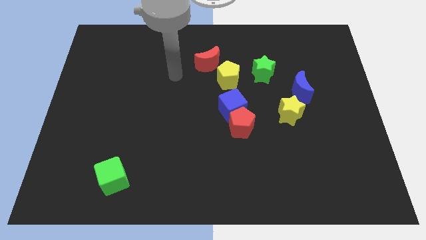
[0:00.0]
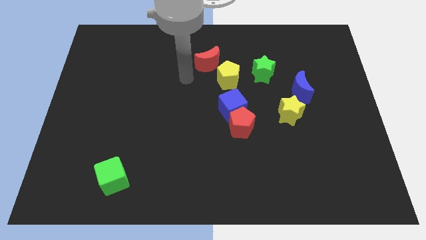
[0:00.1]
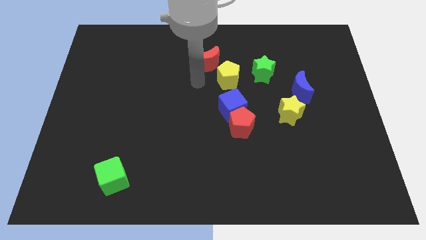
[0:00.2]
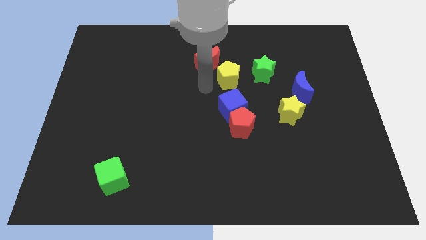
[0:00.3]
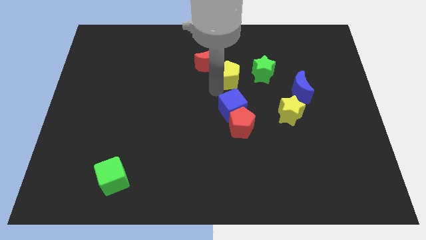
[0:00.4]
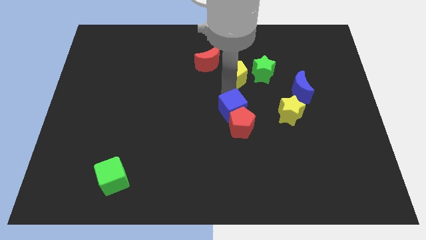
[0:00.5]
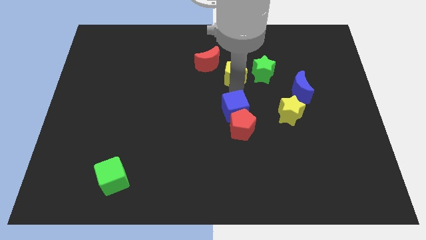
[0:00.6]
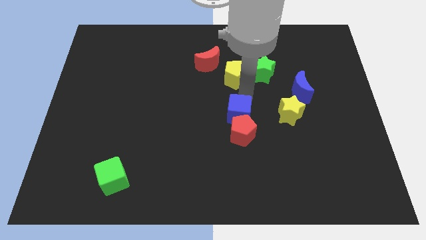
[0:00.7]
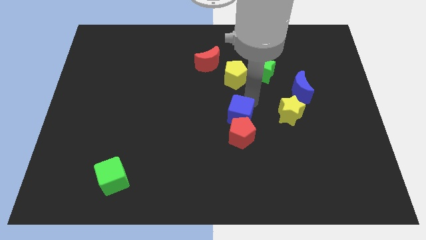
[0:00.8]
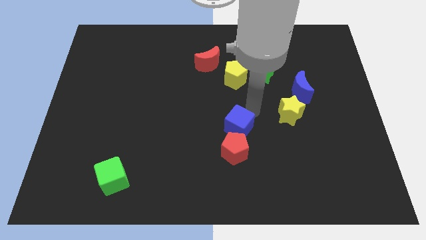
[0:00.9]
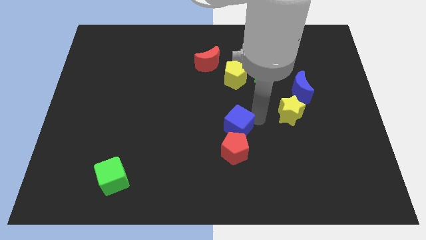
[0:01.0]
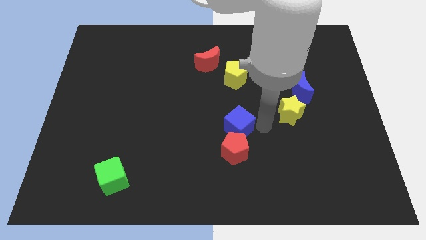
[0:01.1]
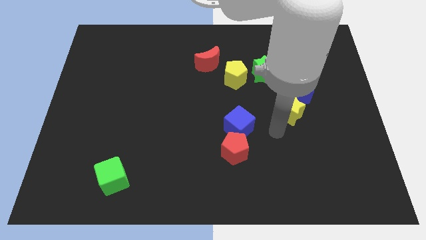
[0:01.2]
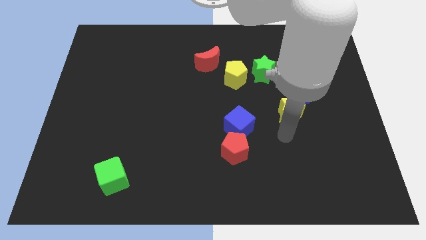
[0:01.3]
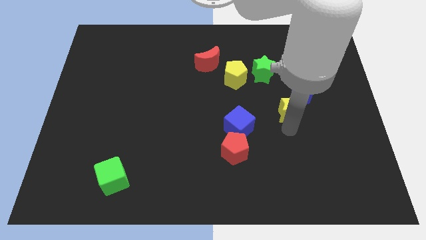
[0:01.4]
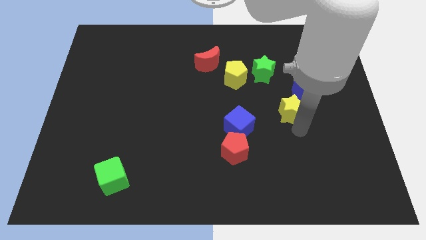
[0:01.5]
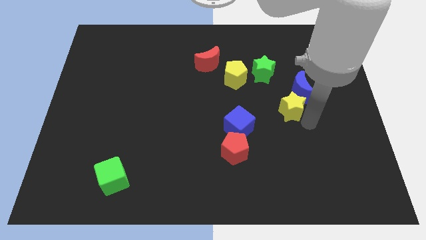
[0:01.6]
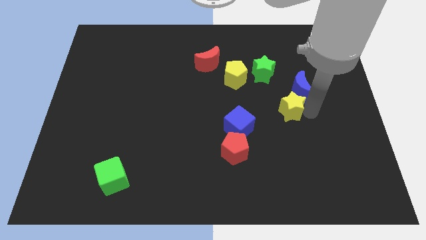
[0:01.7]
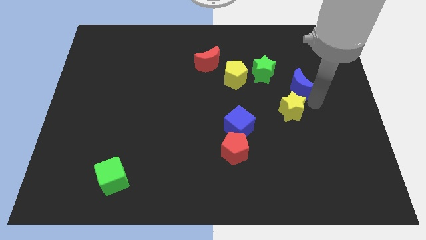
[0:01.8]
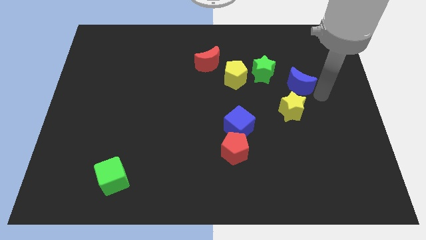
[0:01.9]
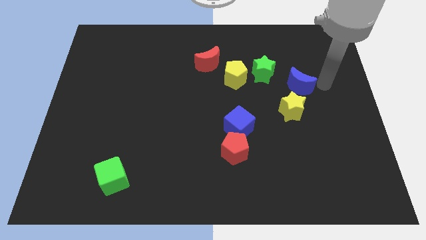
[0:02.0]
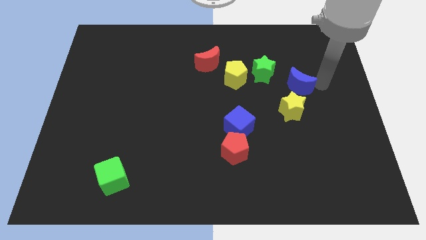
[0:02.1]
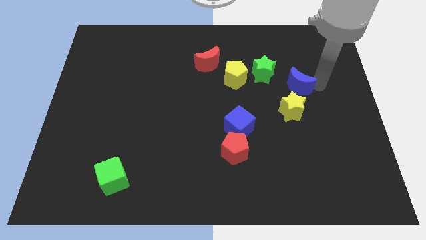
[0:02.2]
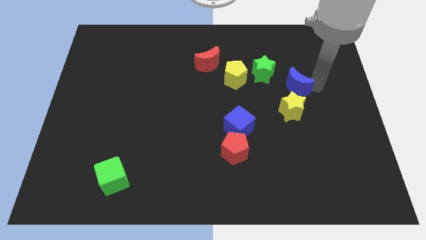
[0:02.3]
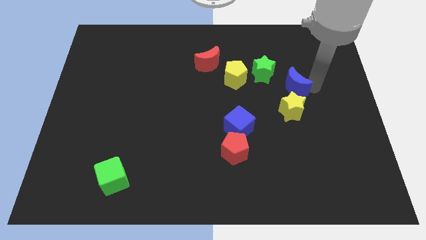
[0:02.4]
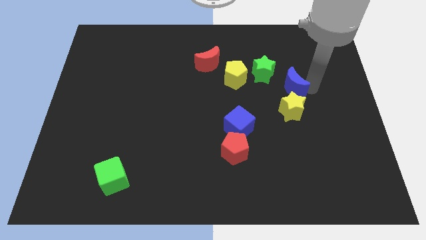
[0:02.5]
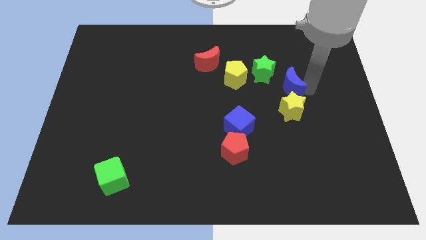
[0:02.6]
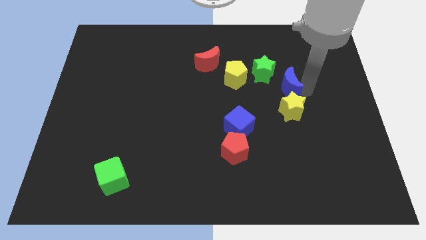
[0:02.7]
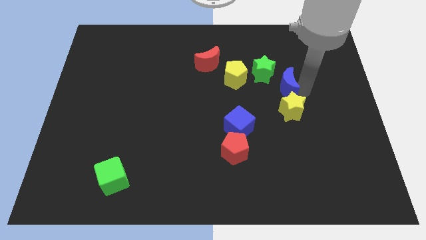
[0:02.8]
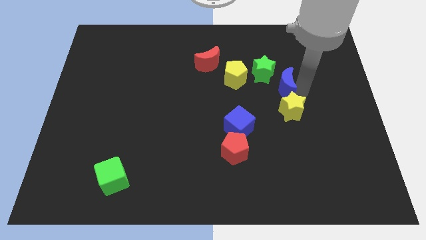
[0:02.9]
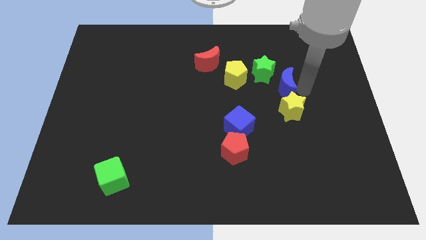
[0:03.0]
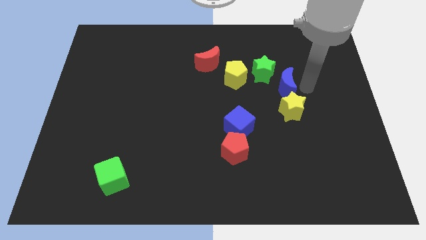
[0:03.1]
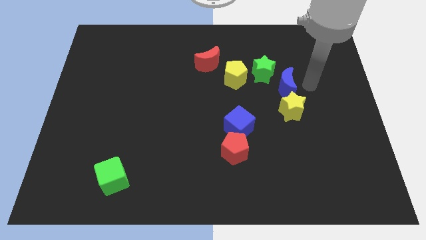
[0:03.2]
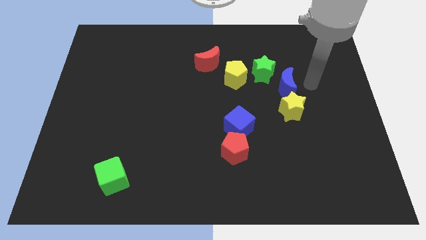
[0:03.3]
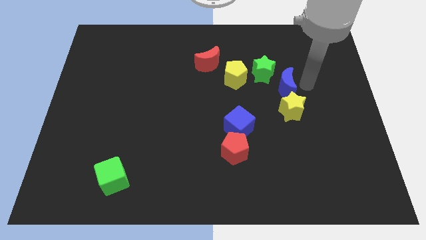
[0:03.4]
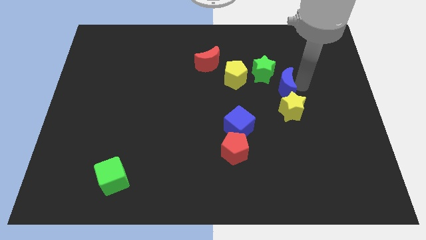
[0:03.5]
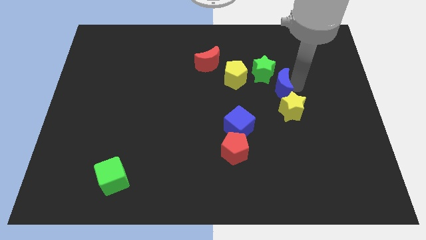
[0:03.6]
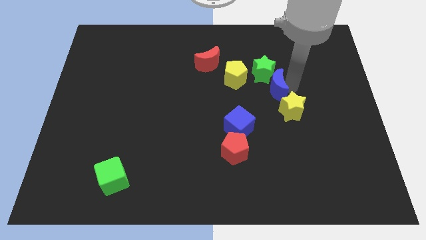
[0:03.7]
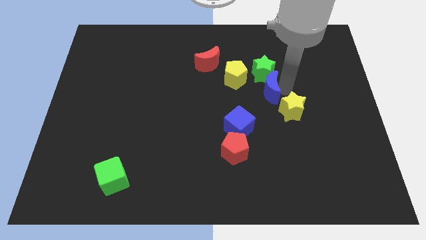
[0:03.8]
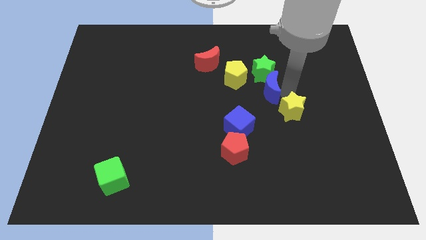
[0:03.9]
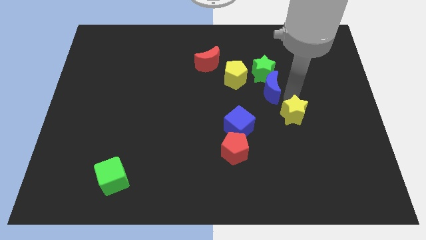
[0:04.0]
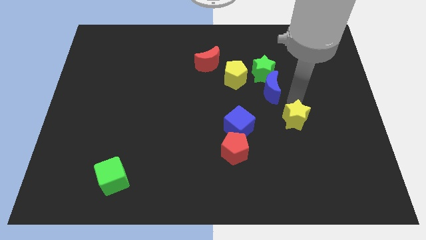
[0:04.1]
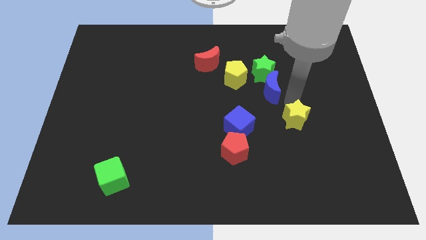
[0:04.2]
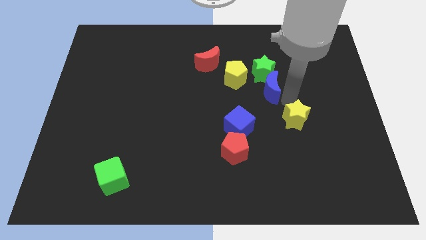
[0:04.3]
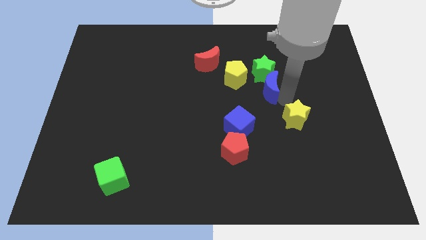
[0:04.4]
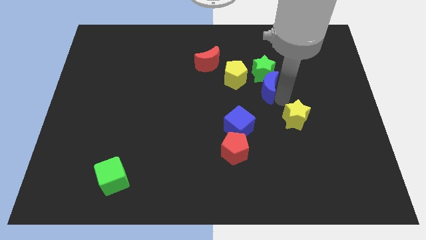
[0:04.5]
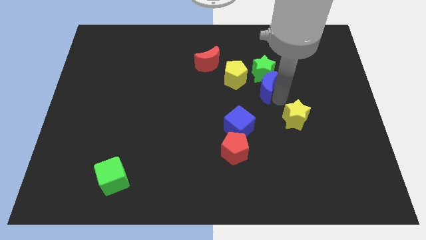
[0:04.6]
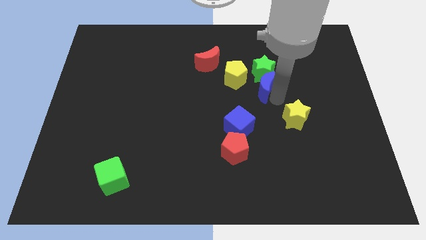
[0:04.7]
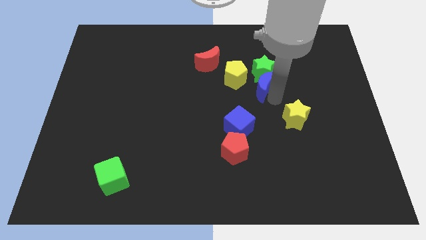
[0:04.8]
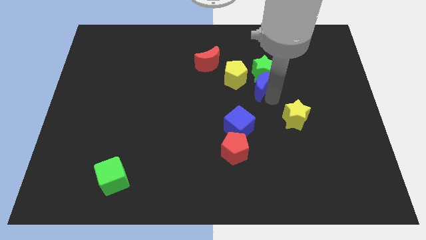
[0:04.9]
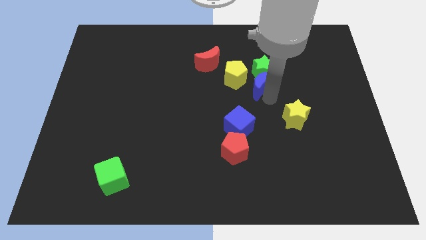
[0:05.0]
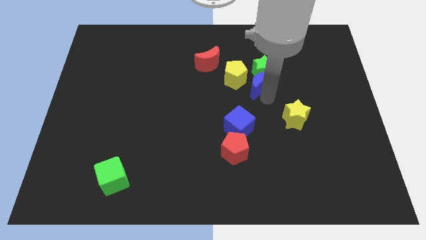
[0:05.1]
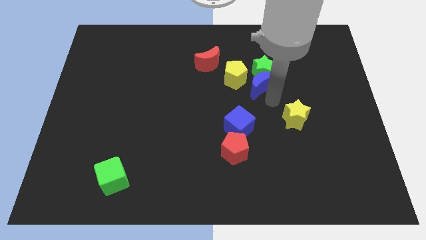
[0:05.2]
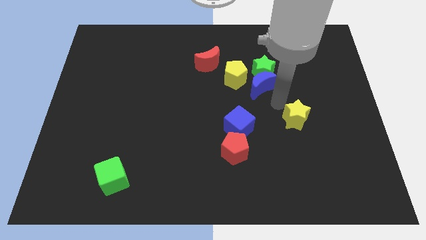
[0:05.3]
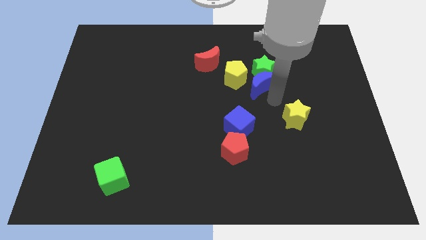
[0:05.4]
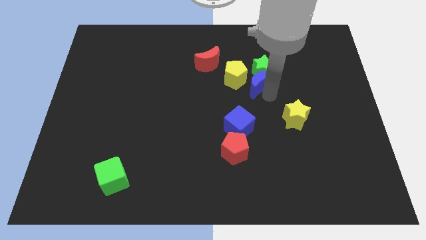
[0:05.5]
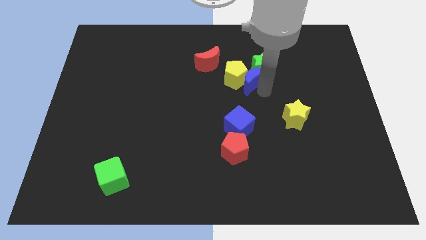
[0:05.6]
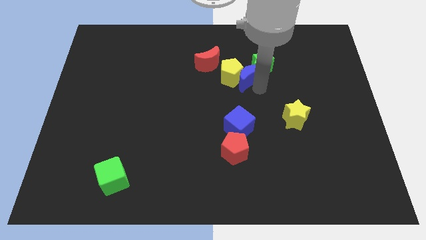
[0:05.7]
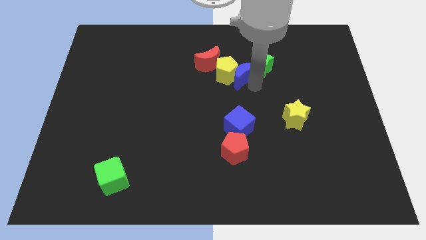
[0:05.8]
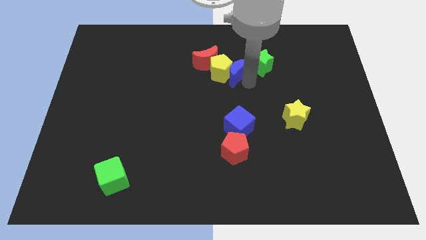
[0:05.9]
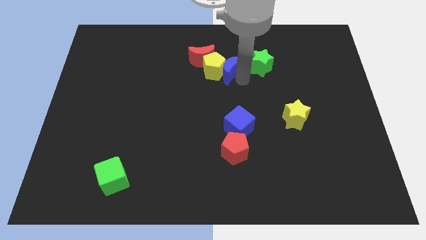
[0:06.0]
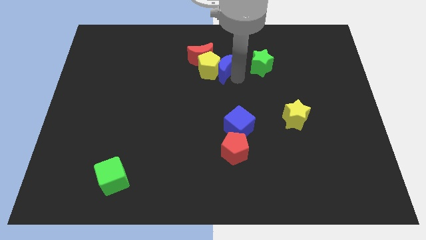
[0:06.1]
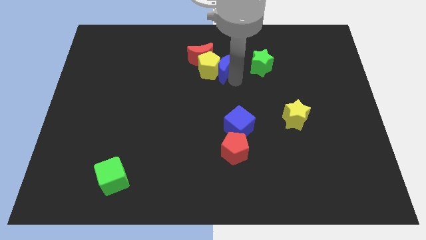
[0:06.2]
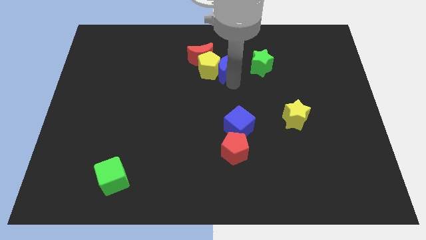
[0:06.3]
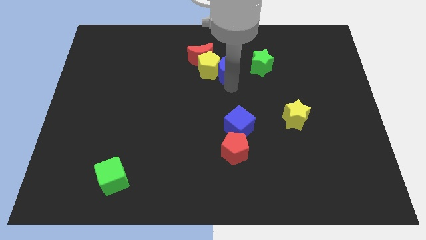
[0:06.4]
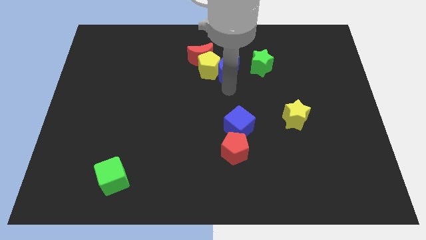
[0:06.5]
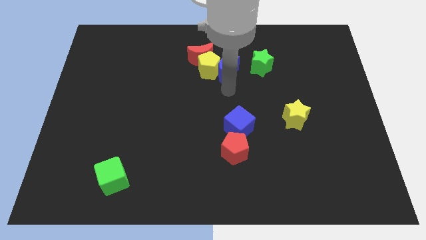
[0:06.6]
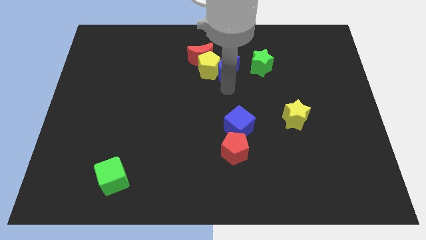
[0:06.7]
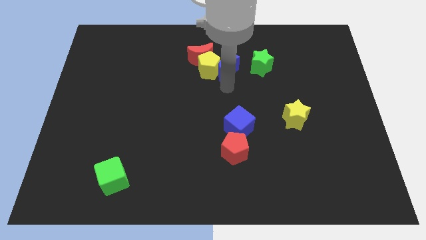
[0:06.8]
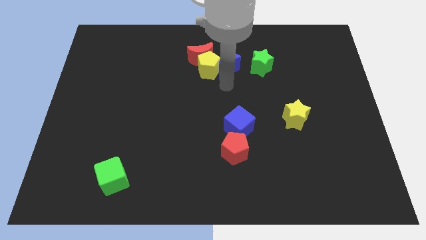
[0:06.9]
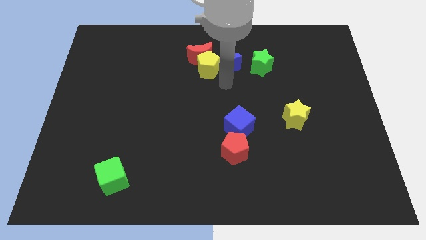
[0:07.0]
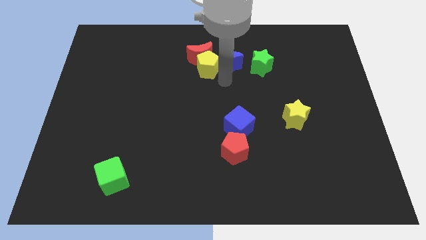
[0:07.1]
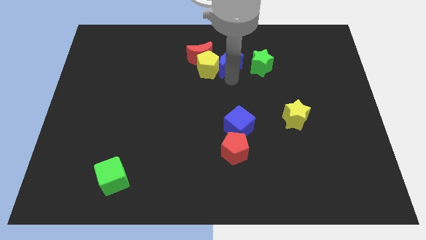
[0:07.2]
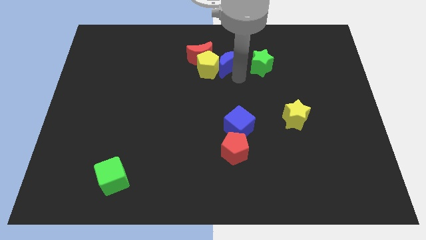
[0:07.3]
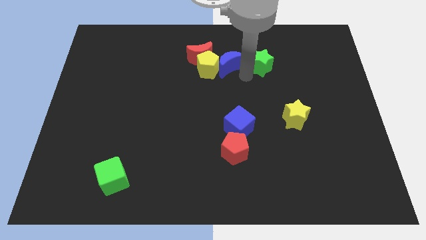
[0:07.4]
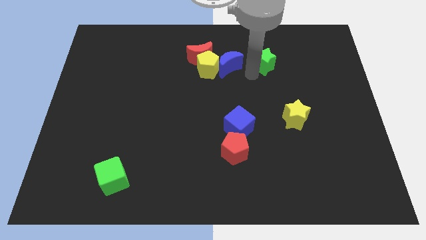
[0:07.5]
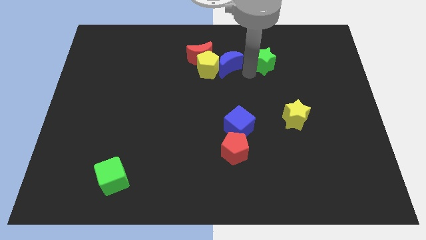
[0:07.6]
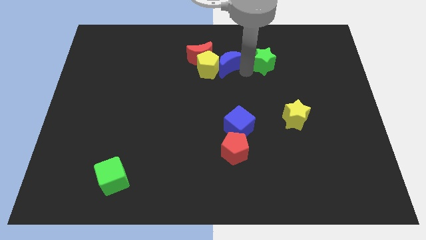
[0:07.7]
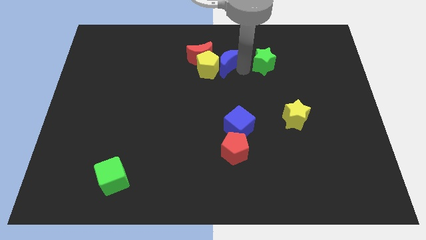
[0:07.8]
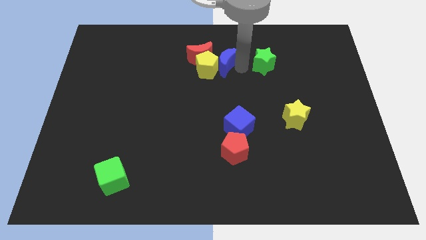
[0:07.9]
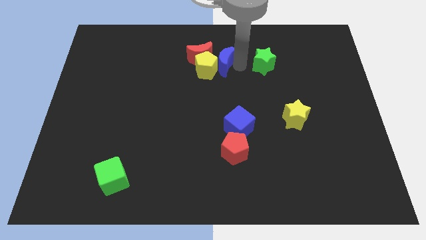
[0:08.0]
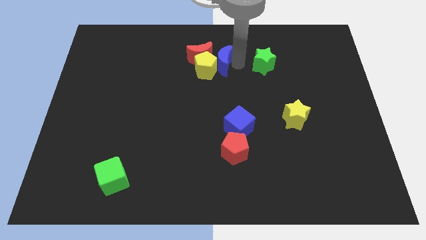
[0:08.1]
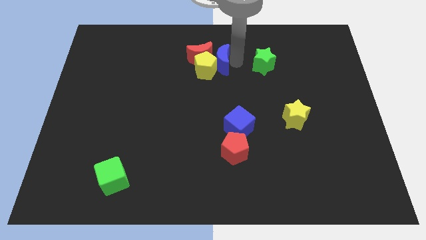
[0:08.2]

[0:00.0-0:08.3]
put the blue moon next to the red moon
